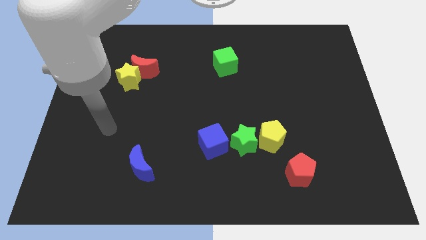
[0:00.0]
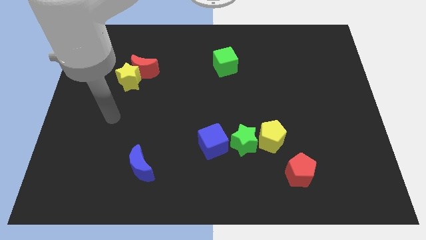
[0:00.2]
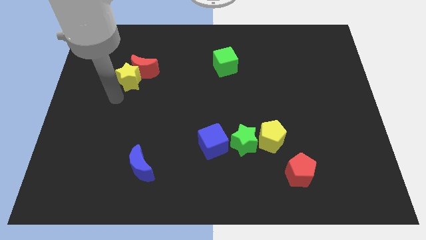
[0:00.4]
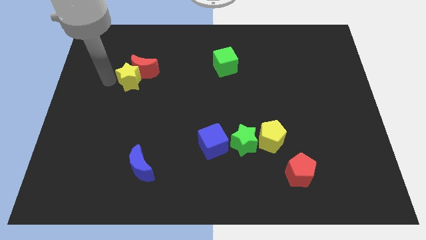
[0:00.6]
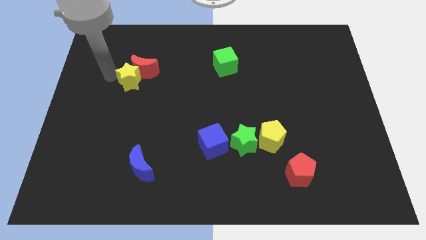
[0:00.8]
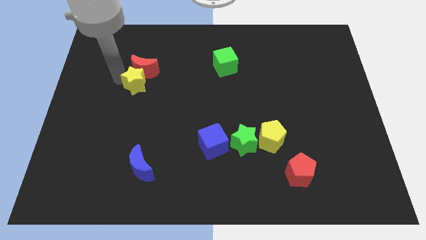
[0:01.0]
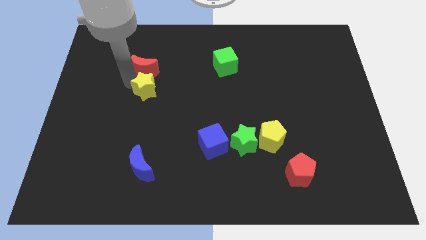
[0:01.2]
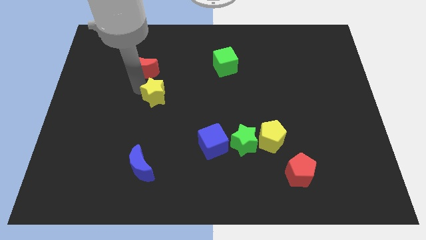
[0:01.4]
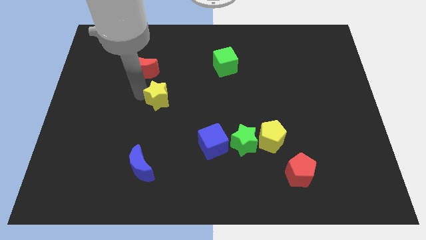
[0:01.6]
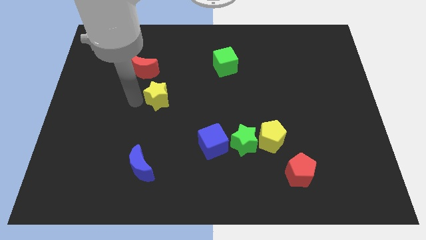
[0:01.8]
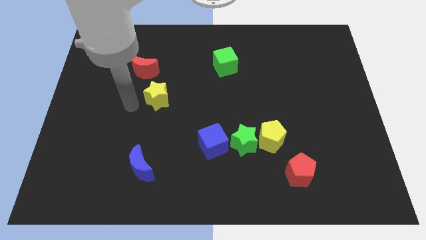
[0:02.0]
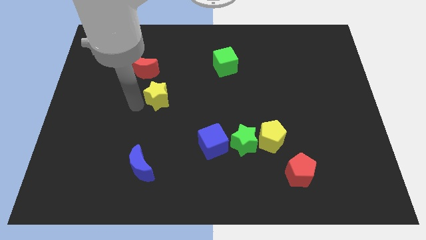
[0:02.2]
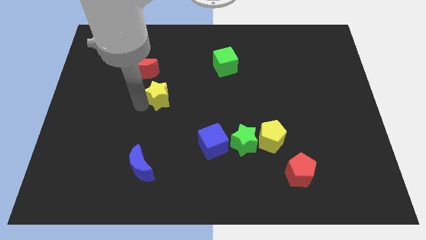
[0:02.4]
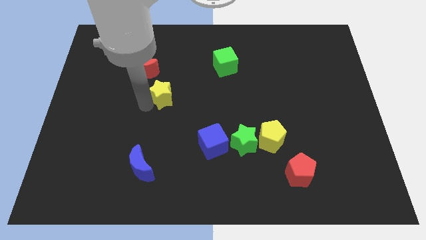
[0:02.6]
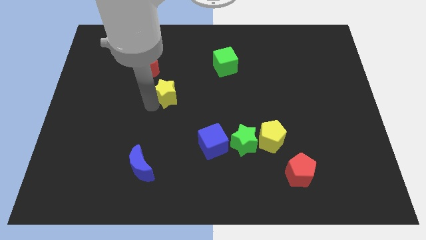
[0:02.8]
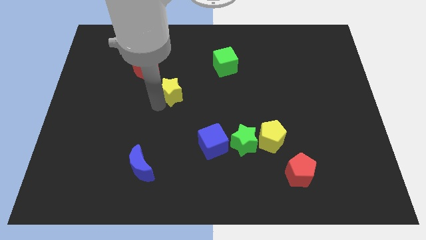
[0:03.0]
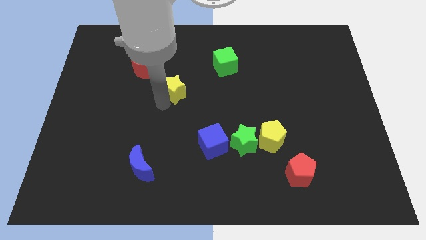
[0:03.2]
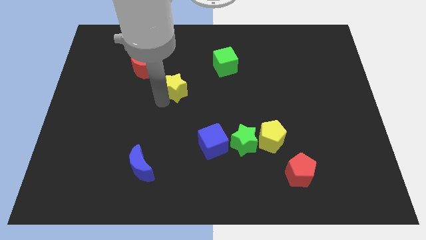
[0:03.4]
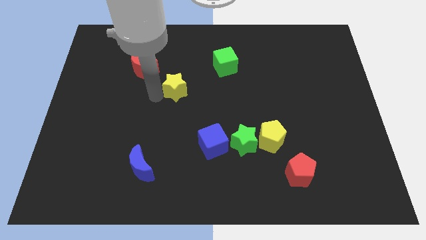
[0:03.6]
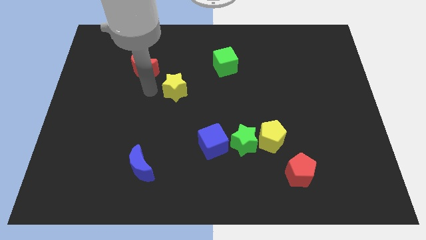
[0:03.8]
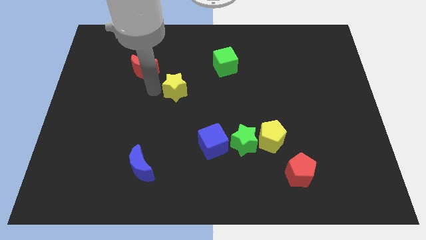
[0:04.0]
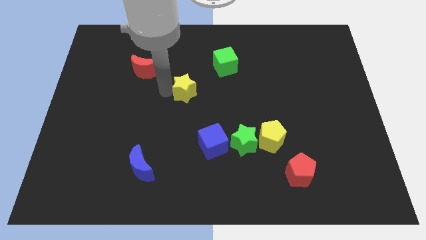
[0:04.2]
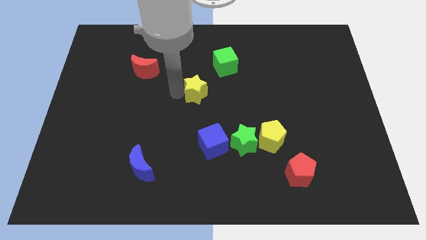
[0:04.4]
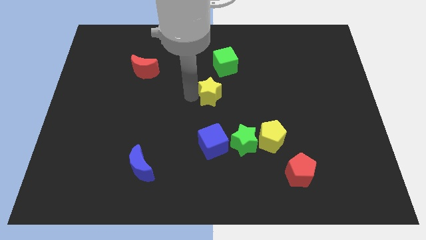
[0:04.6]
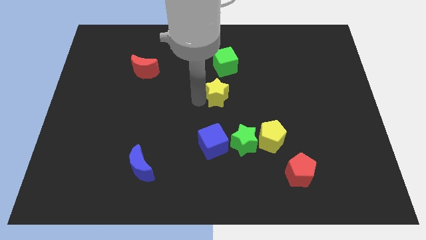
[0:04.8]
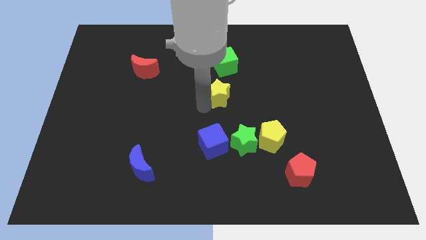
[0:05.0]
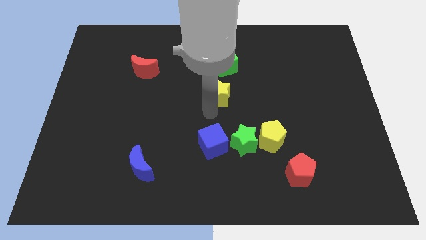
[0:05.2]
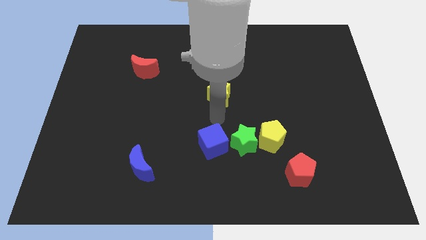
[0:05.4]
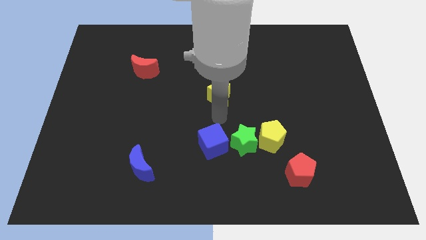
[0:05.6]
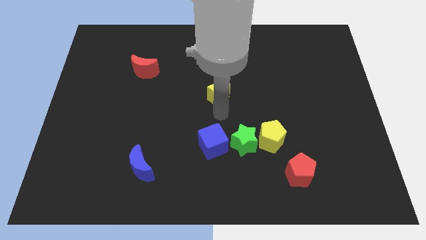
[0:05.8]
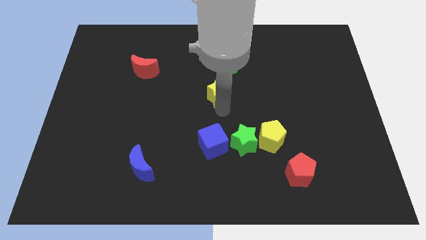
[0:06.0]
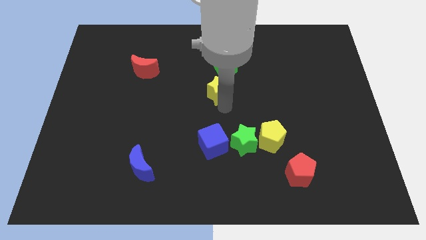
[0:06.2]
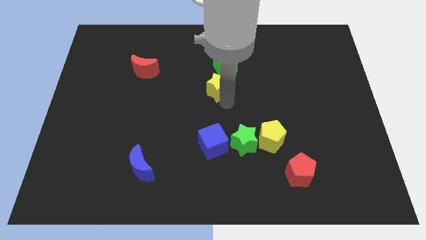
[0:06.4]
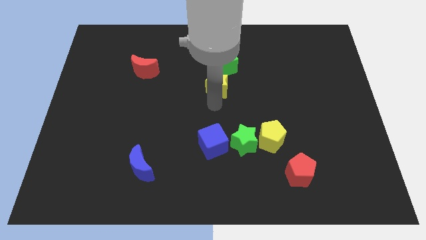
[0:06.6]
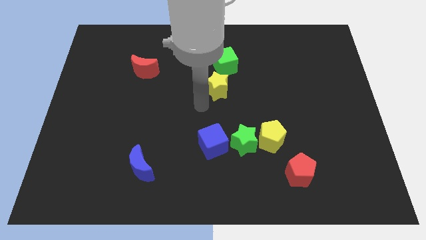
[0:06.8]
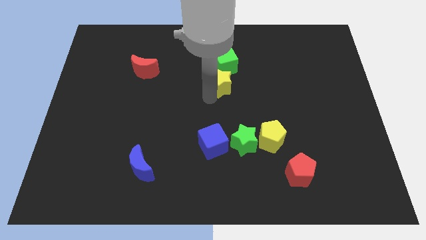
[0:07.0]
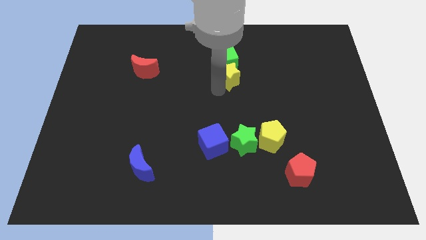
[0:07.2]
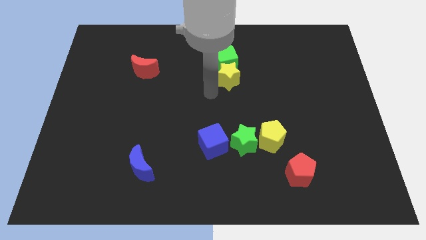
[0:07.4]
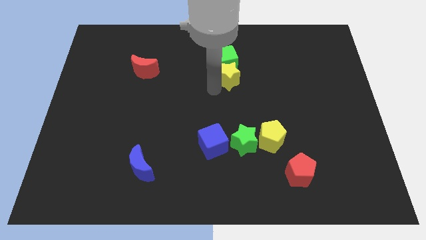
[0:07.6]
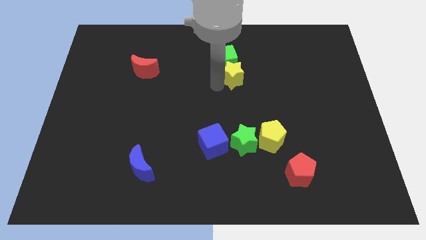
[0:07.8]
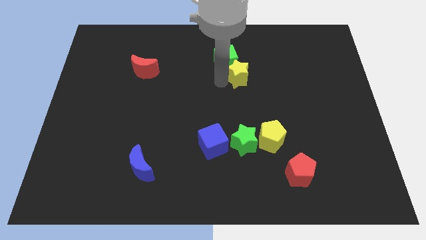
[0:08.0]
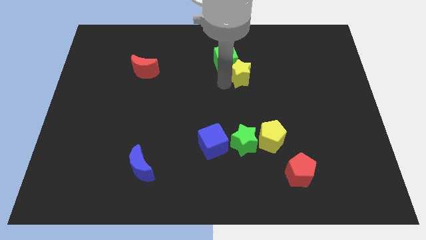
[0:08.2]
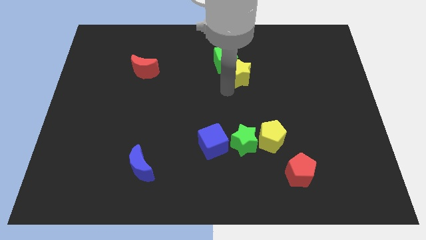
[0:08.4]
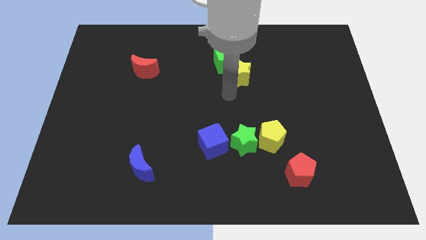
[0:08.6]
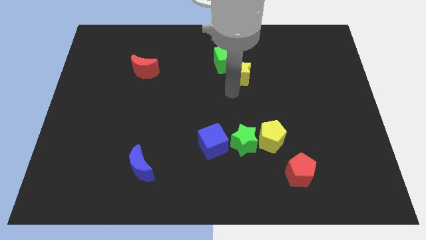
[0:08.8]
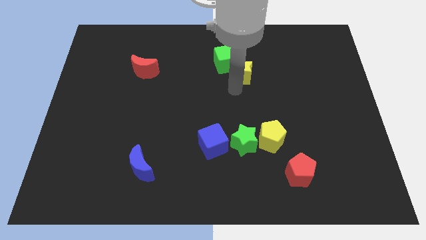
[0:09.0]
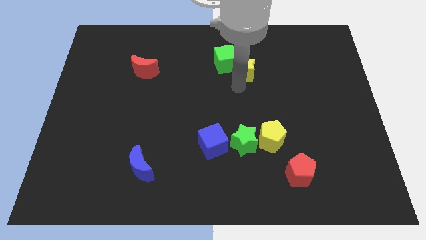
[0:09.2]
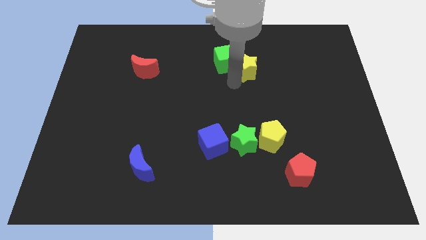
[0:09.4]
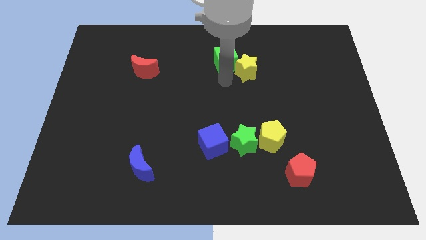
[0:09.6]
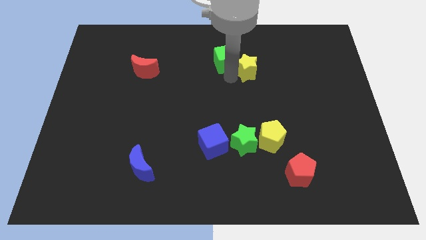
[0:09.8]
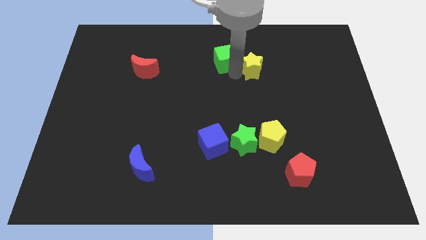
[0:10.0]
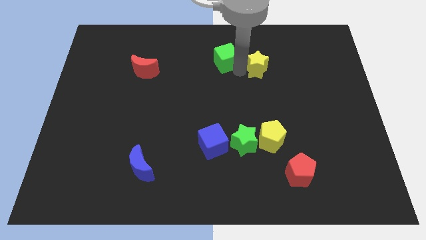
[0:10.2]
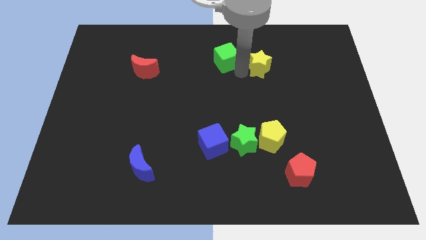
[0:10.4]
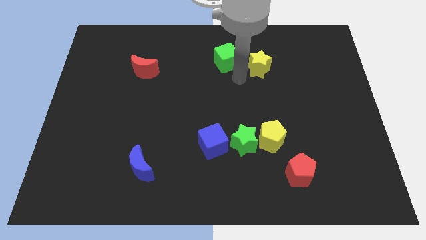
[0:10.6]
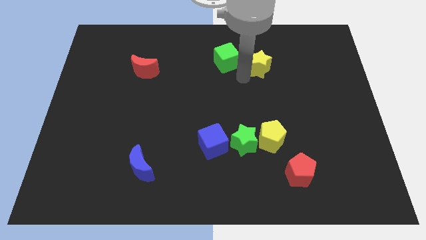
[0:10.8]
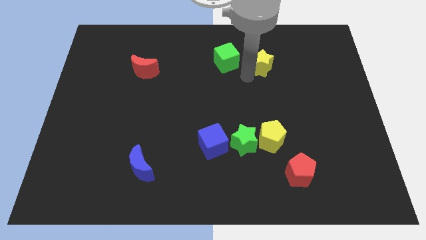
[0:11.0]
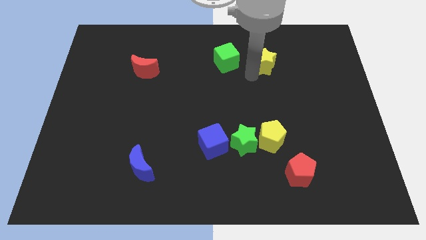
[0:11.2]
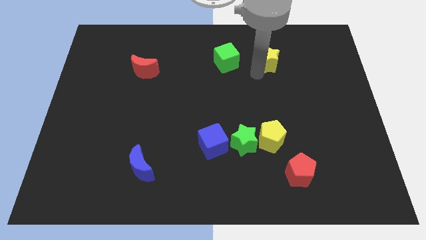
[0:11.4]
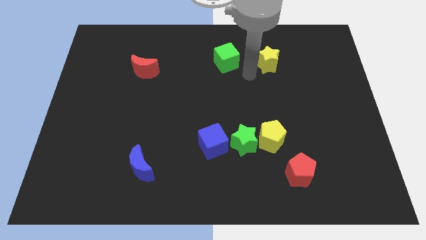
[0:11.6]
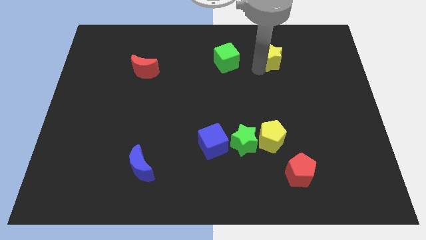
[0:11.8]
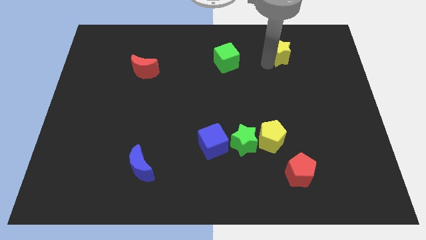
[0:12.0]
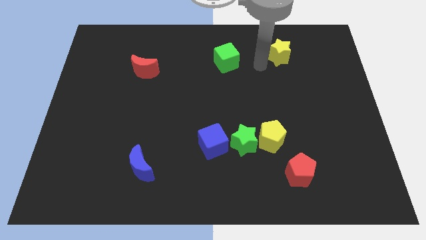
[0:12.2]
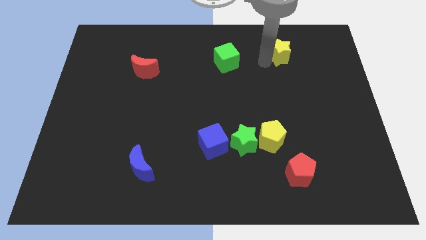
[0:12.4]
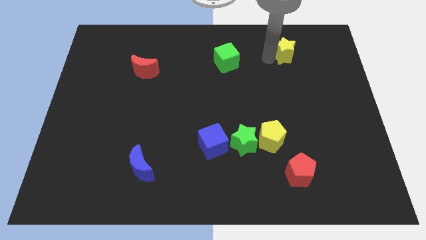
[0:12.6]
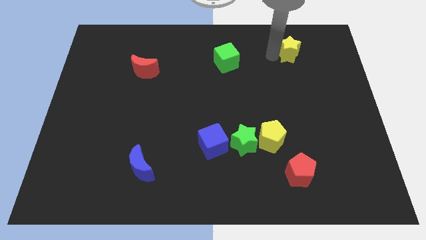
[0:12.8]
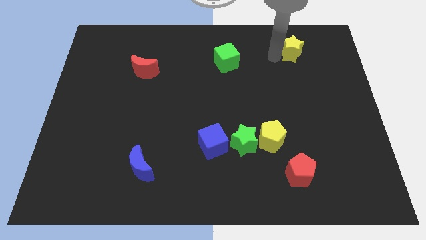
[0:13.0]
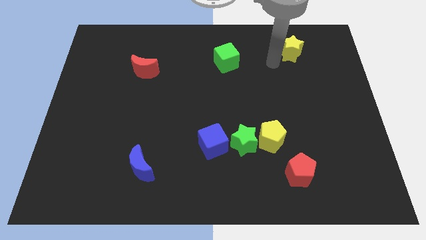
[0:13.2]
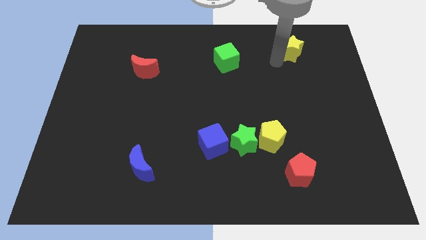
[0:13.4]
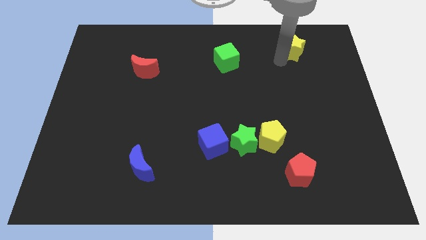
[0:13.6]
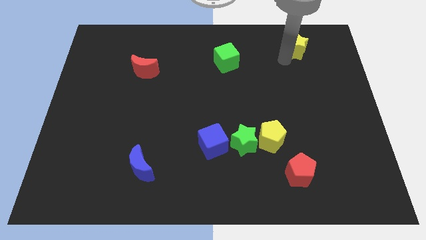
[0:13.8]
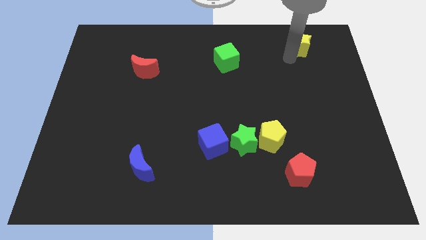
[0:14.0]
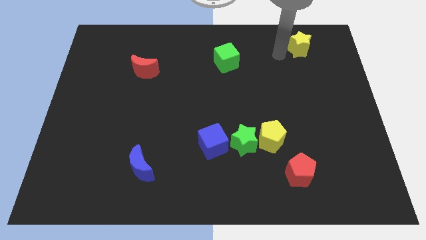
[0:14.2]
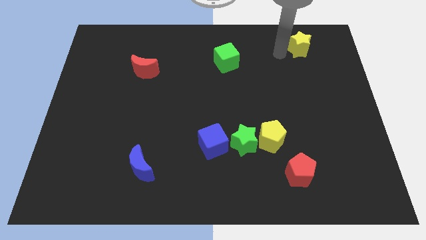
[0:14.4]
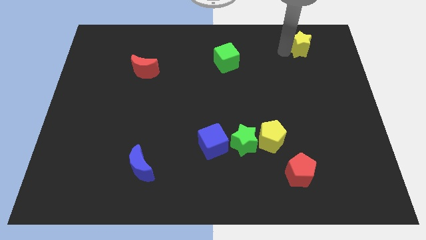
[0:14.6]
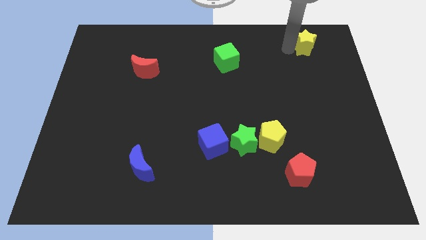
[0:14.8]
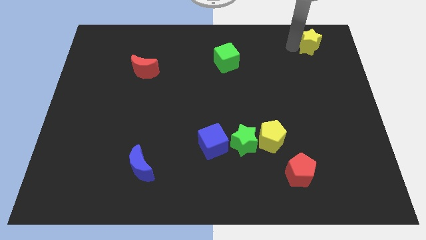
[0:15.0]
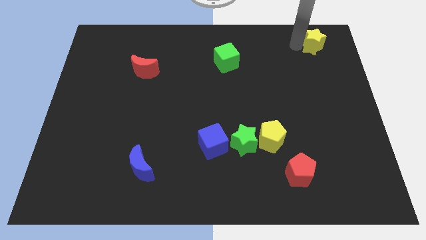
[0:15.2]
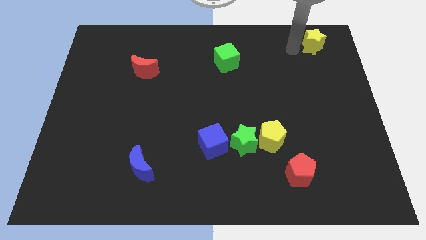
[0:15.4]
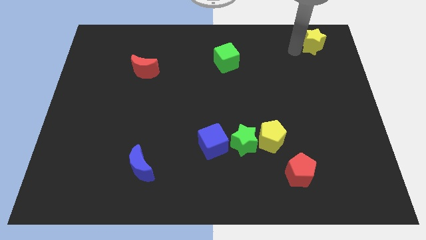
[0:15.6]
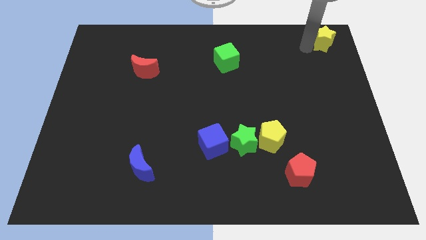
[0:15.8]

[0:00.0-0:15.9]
put the yellow star to the upper right corner
